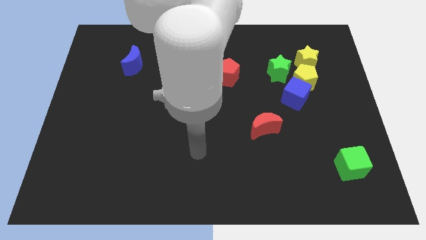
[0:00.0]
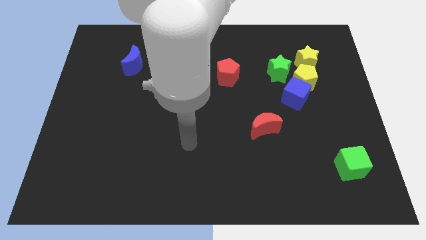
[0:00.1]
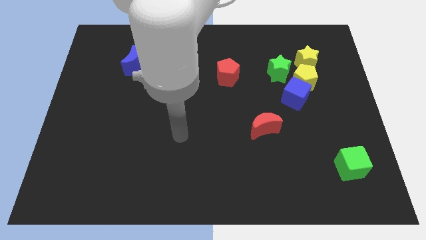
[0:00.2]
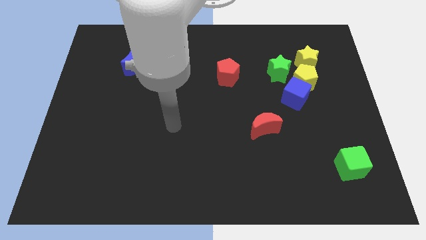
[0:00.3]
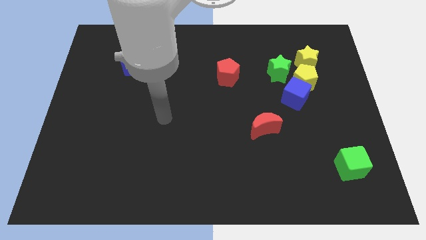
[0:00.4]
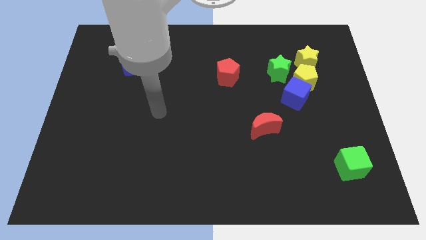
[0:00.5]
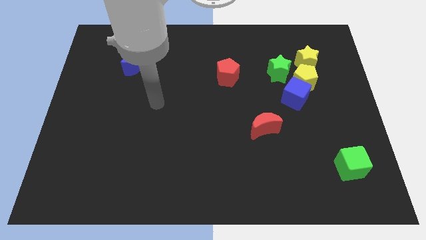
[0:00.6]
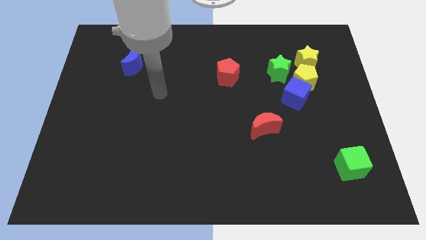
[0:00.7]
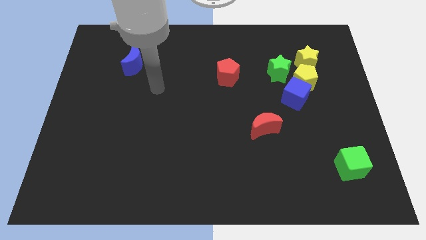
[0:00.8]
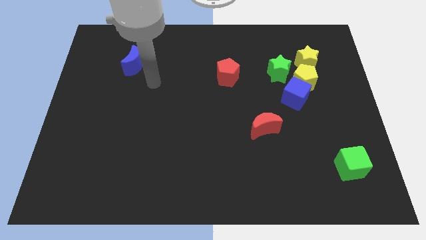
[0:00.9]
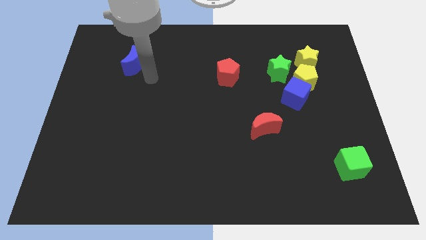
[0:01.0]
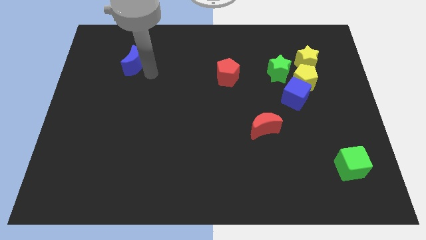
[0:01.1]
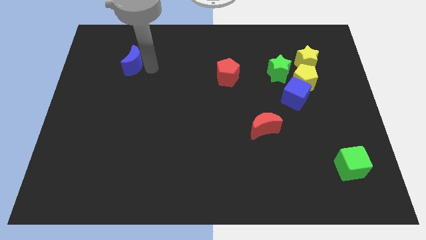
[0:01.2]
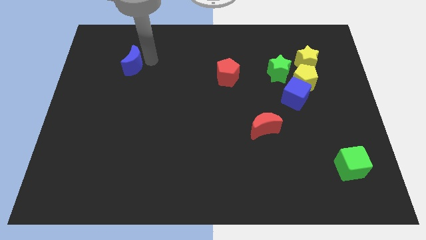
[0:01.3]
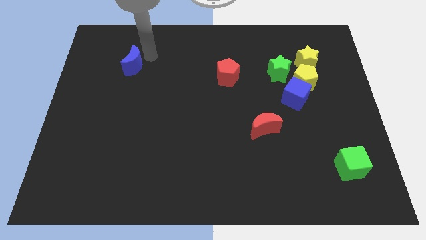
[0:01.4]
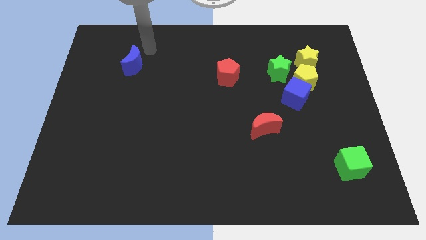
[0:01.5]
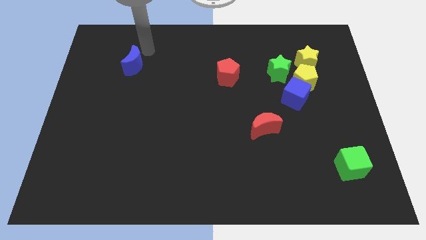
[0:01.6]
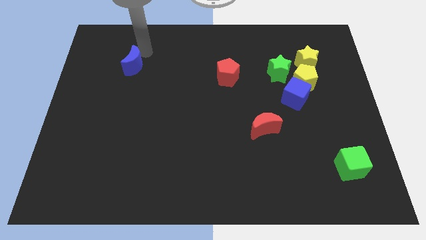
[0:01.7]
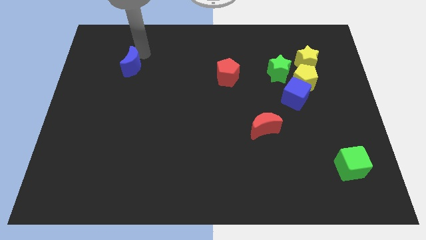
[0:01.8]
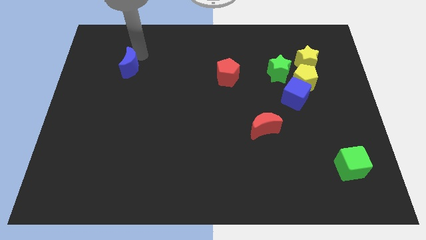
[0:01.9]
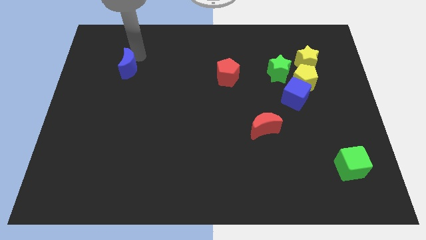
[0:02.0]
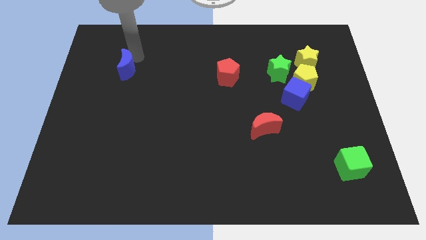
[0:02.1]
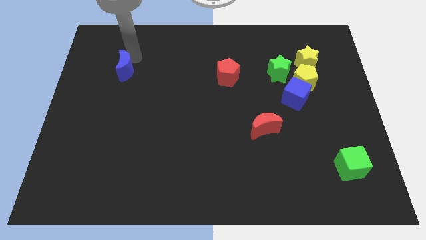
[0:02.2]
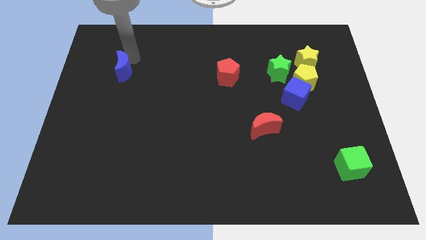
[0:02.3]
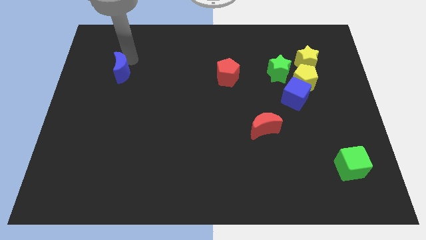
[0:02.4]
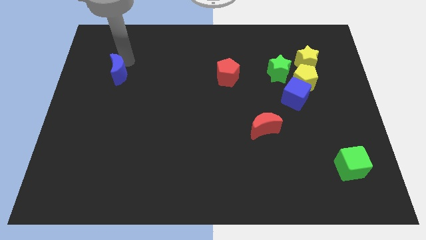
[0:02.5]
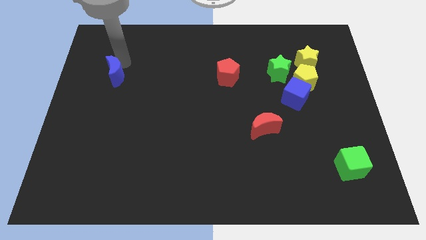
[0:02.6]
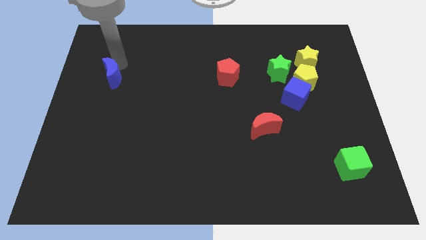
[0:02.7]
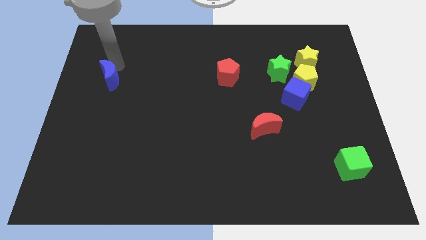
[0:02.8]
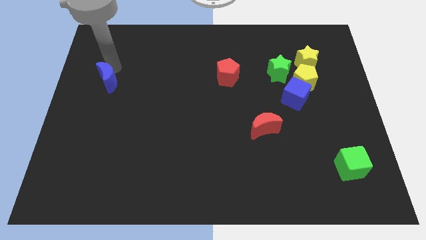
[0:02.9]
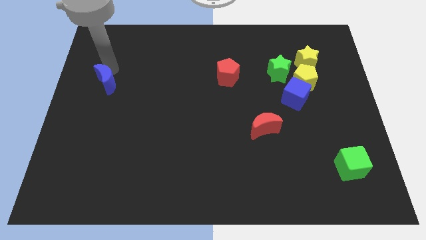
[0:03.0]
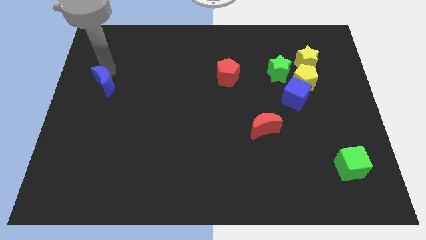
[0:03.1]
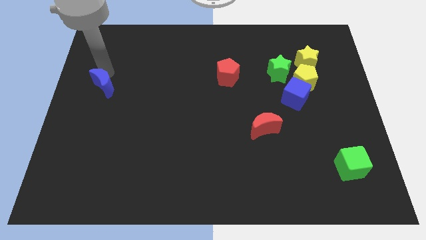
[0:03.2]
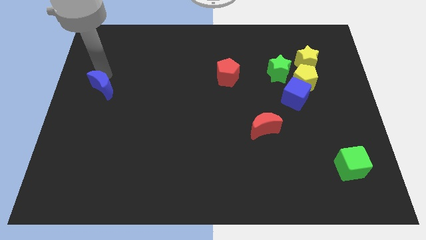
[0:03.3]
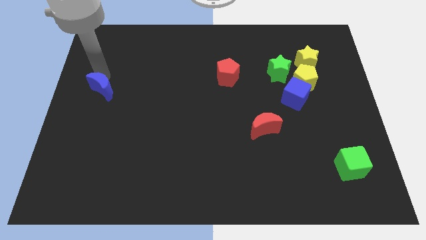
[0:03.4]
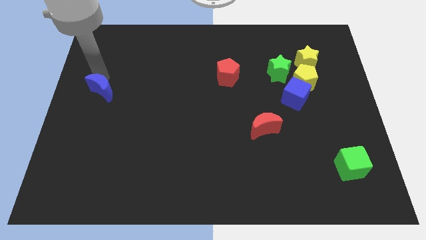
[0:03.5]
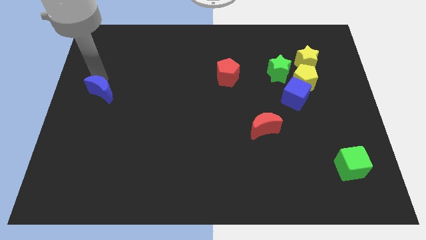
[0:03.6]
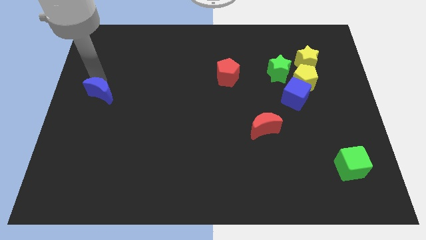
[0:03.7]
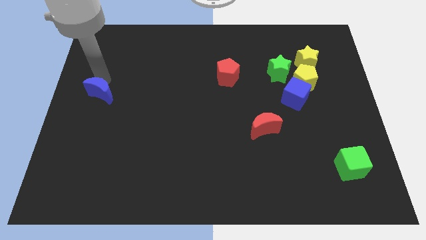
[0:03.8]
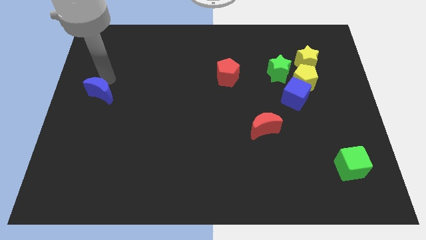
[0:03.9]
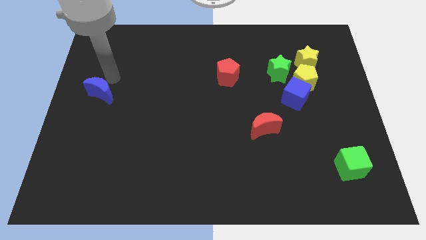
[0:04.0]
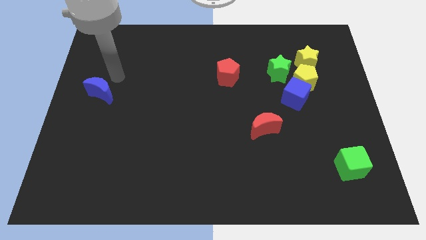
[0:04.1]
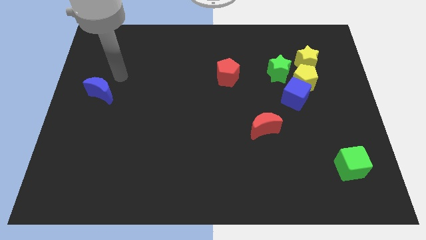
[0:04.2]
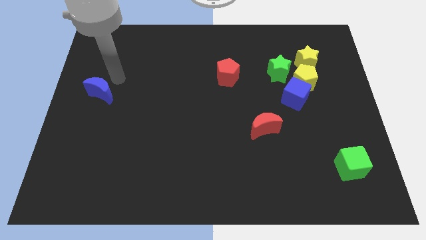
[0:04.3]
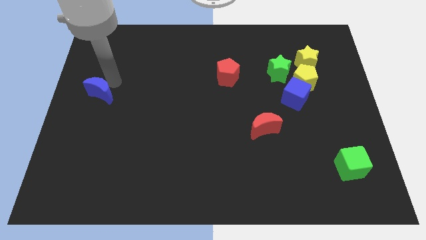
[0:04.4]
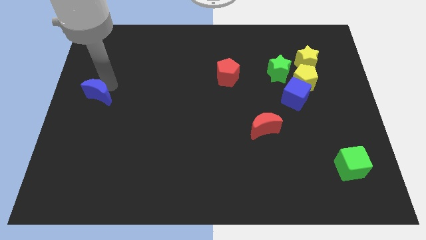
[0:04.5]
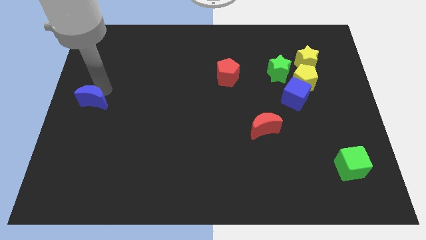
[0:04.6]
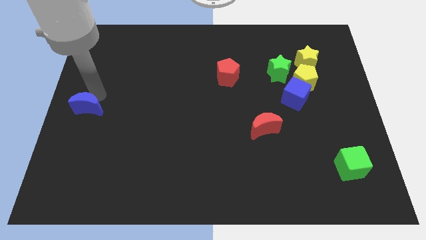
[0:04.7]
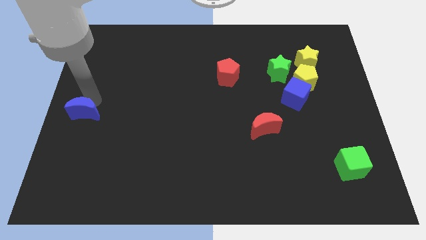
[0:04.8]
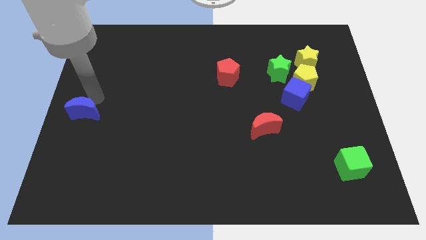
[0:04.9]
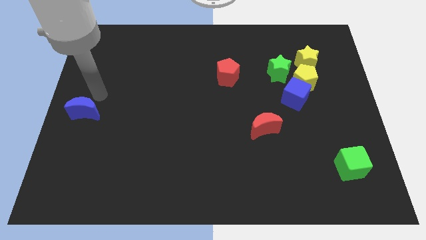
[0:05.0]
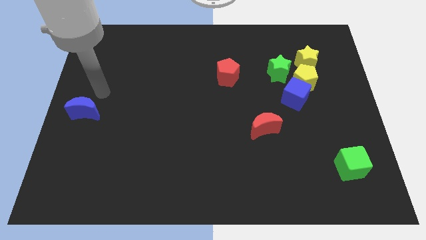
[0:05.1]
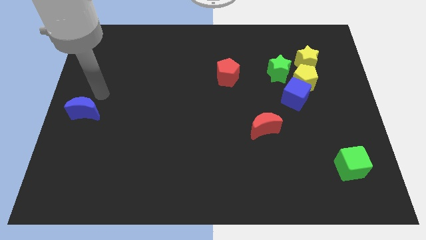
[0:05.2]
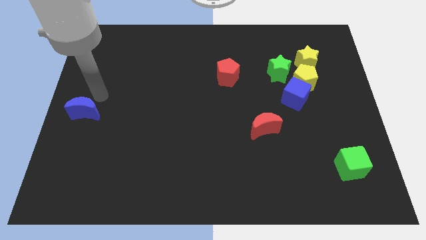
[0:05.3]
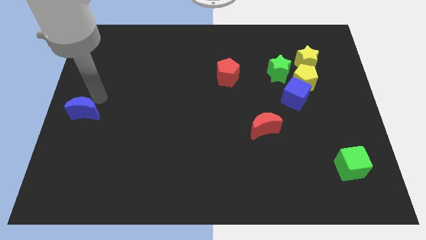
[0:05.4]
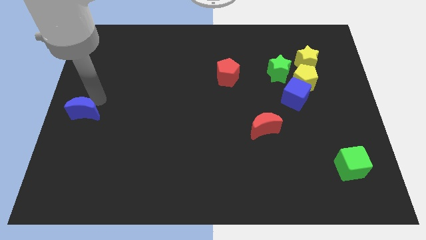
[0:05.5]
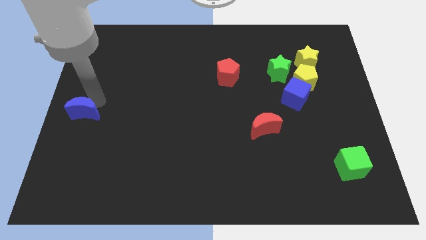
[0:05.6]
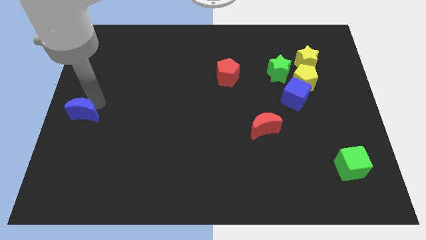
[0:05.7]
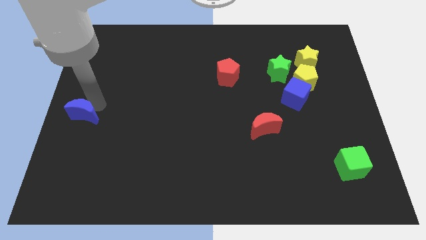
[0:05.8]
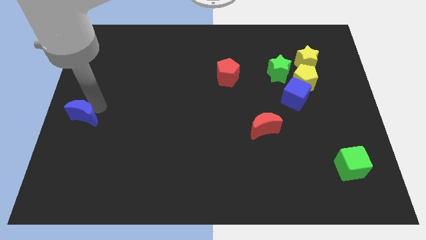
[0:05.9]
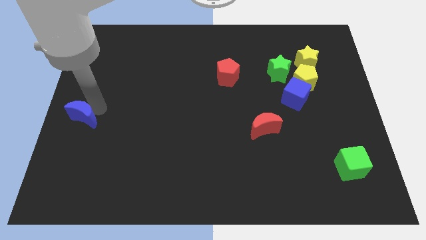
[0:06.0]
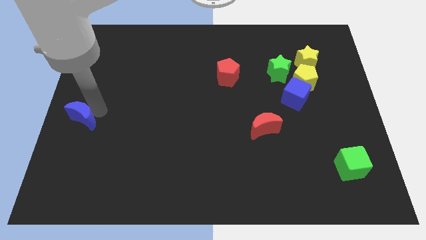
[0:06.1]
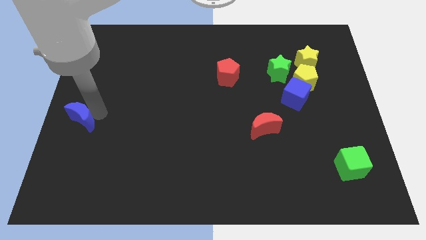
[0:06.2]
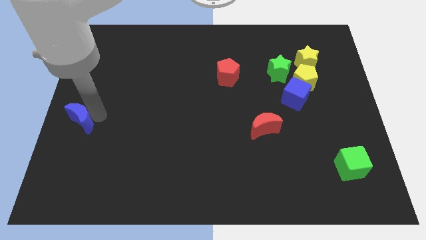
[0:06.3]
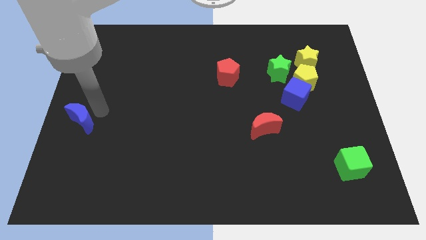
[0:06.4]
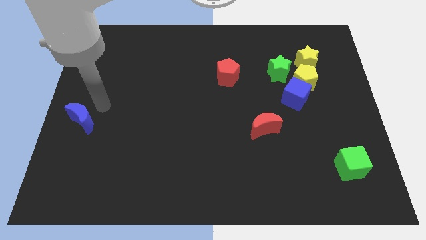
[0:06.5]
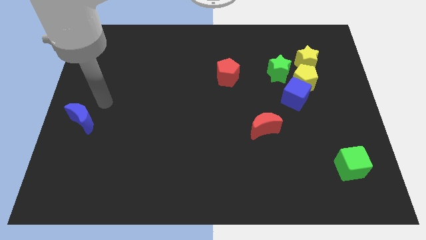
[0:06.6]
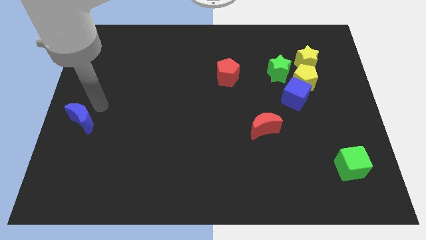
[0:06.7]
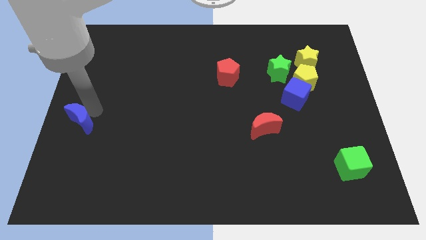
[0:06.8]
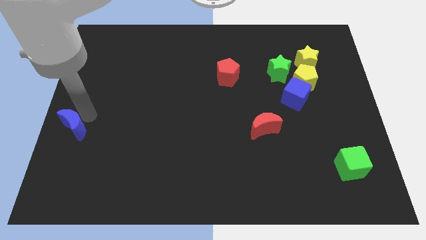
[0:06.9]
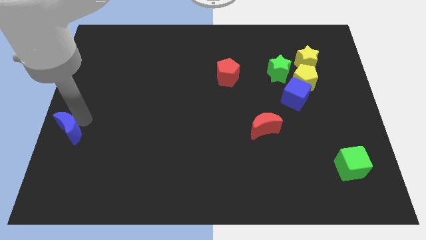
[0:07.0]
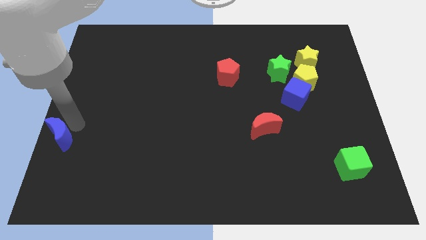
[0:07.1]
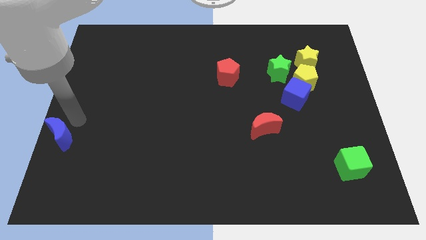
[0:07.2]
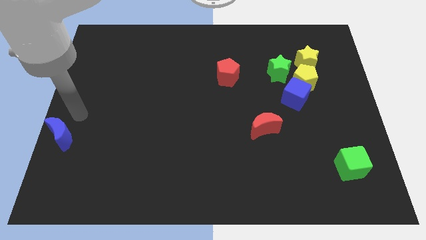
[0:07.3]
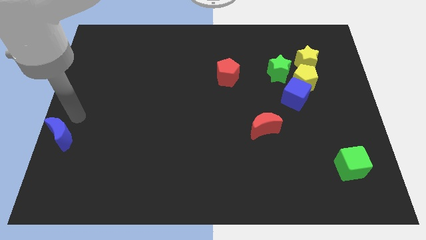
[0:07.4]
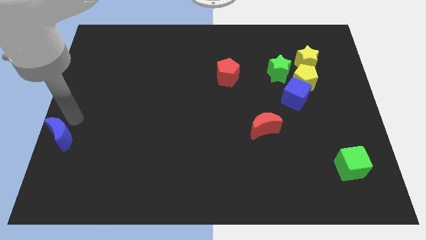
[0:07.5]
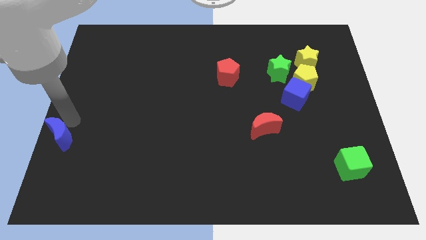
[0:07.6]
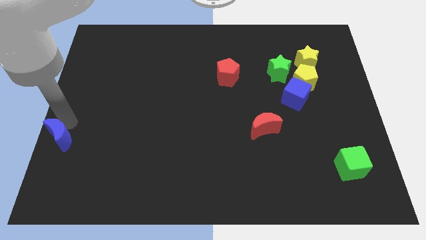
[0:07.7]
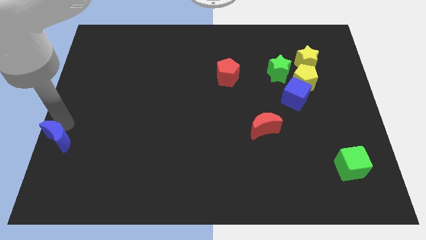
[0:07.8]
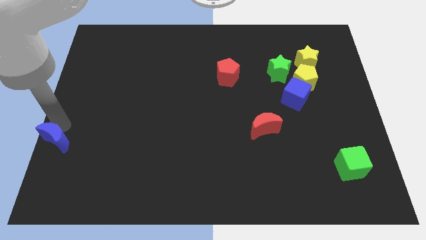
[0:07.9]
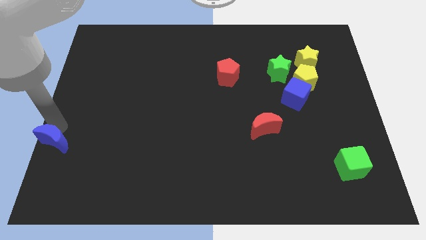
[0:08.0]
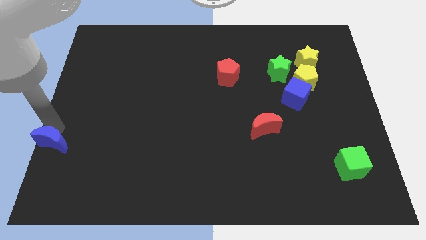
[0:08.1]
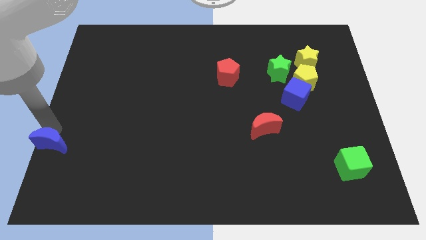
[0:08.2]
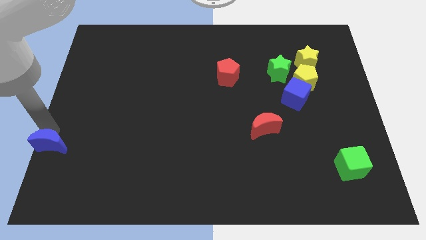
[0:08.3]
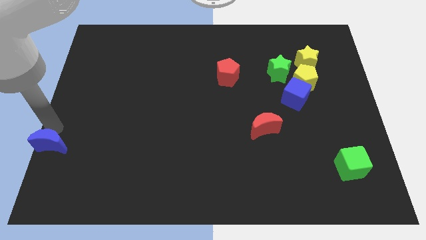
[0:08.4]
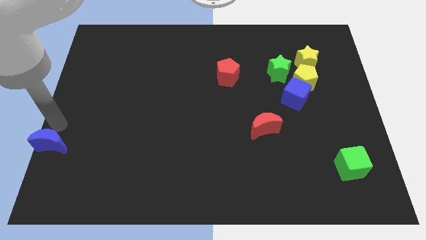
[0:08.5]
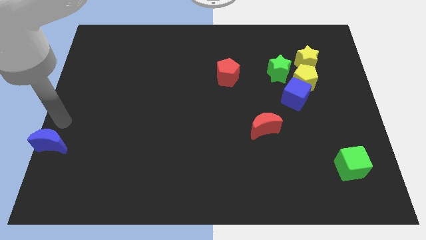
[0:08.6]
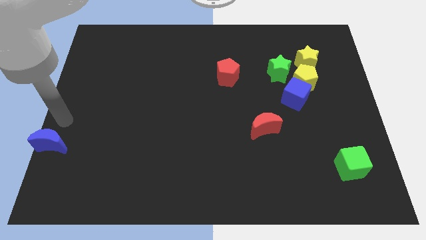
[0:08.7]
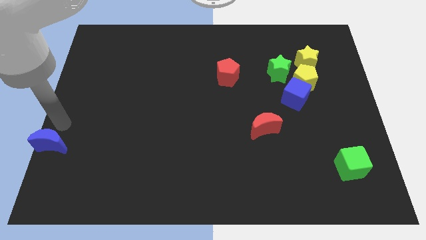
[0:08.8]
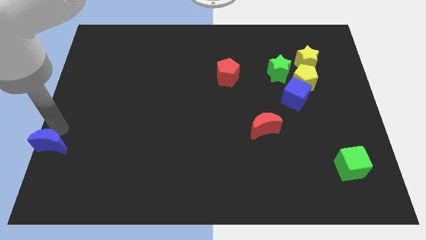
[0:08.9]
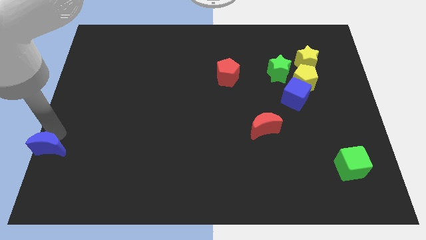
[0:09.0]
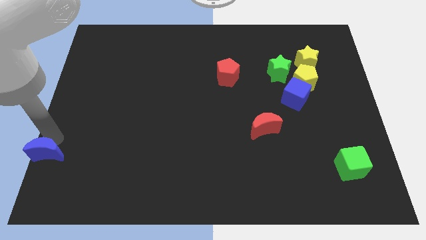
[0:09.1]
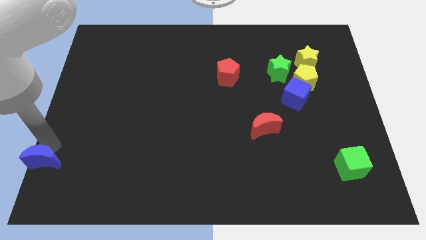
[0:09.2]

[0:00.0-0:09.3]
put the blue moon to the lower left corner
